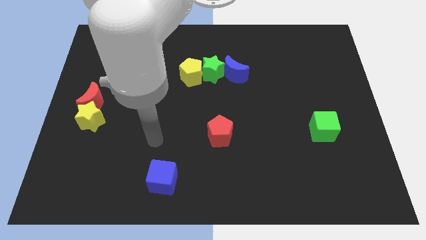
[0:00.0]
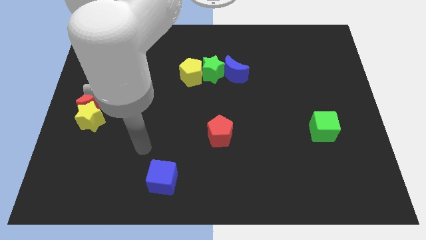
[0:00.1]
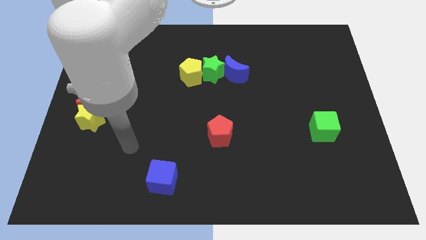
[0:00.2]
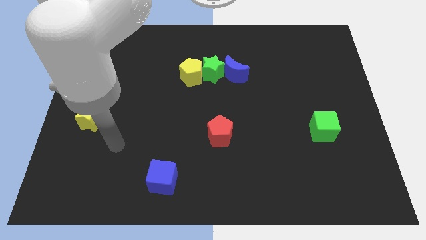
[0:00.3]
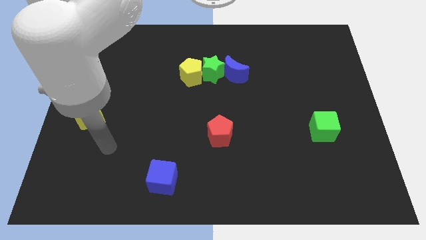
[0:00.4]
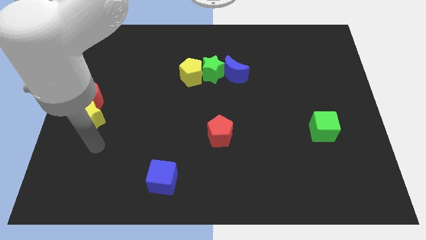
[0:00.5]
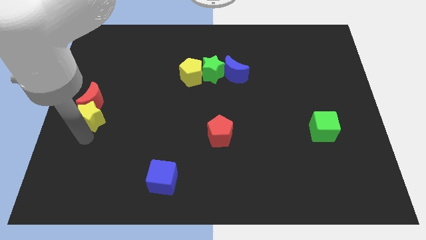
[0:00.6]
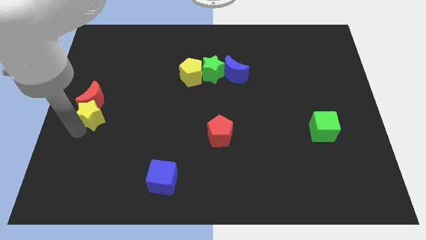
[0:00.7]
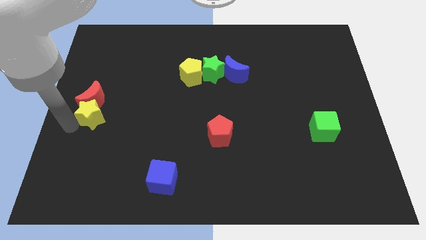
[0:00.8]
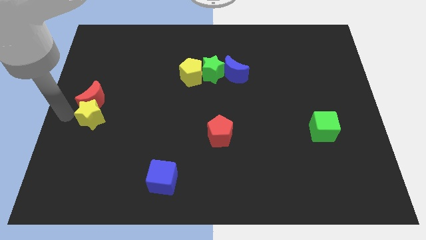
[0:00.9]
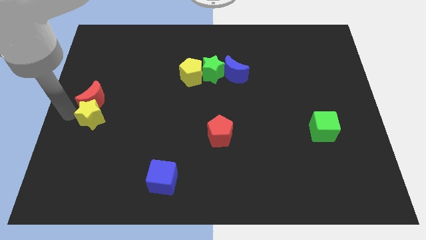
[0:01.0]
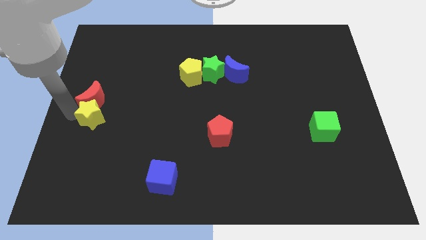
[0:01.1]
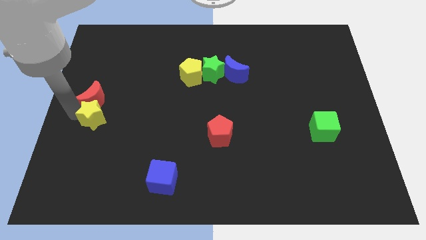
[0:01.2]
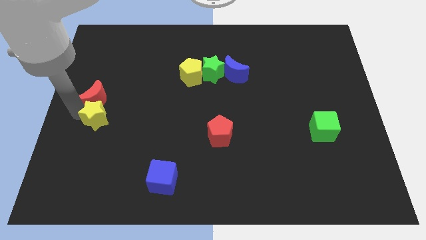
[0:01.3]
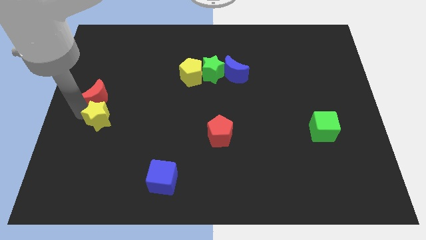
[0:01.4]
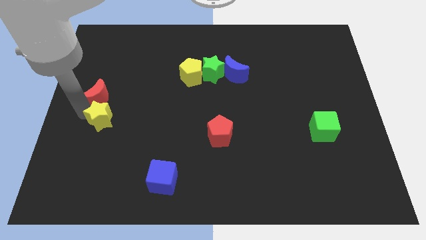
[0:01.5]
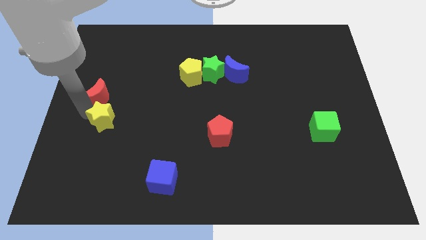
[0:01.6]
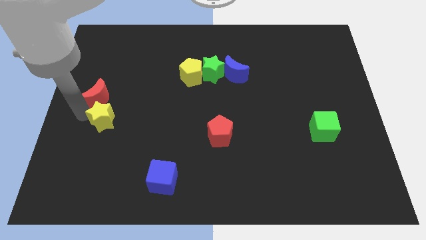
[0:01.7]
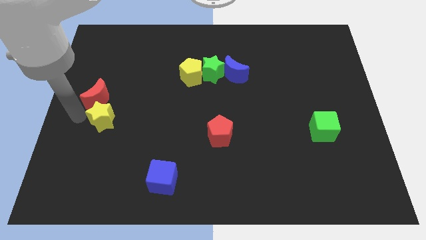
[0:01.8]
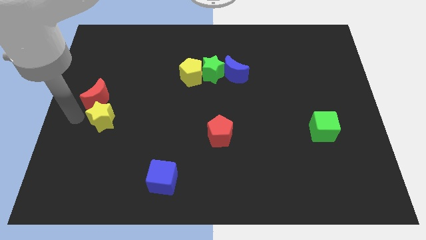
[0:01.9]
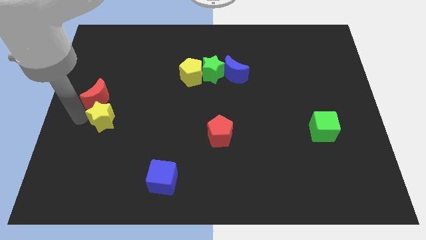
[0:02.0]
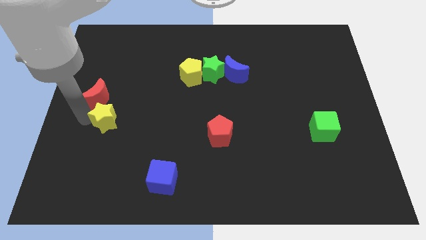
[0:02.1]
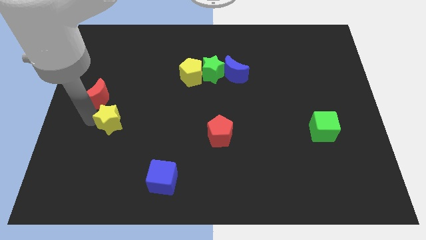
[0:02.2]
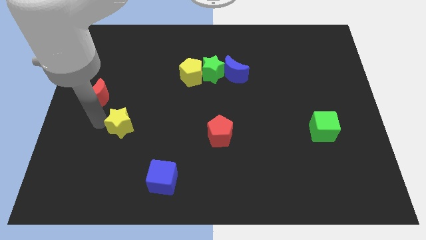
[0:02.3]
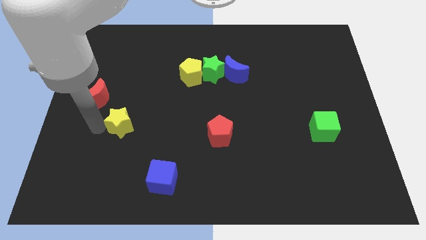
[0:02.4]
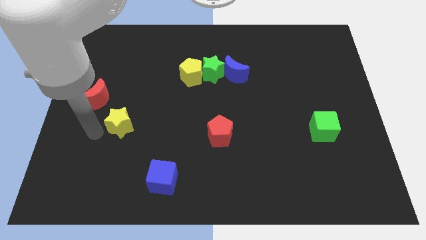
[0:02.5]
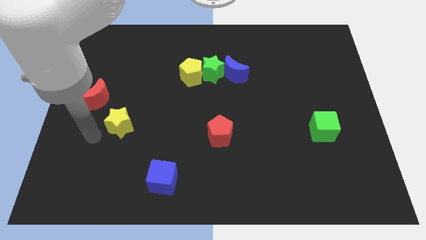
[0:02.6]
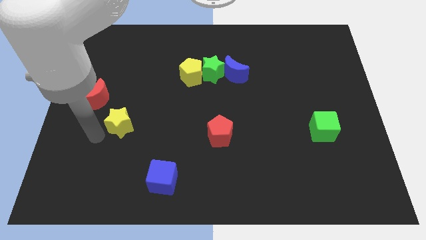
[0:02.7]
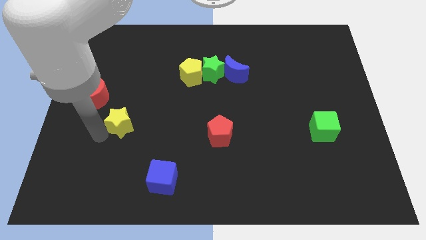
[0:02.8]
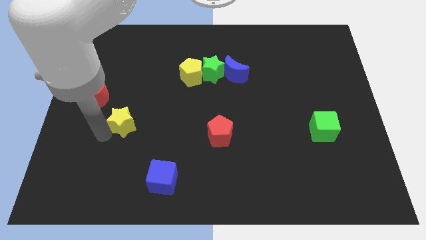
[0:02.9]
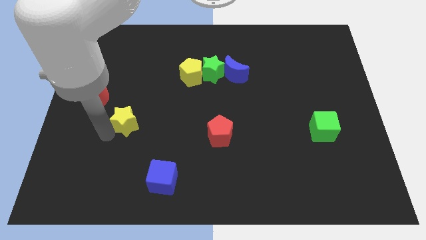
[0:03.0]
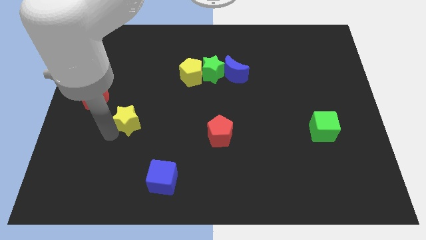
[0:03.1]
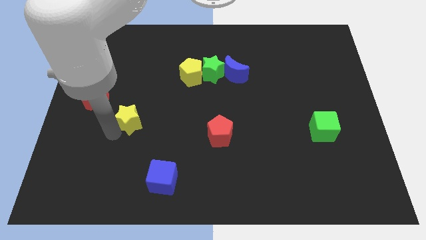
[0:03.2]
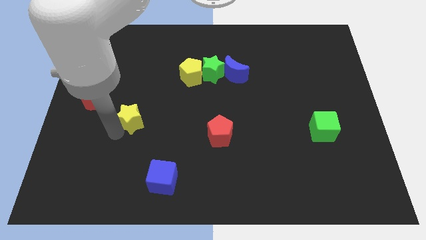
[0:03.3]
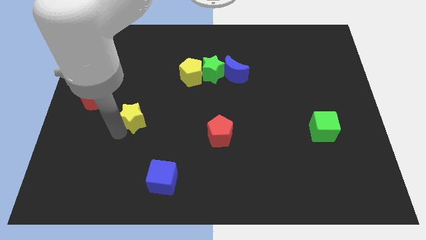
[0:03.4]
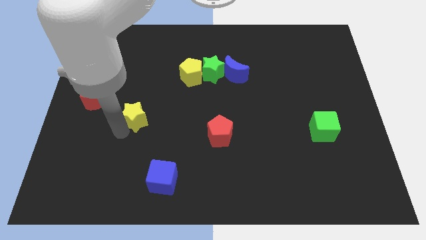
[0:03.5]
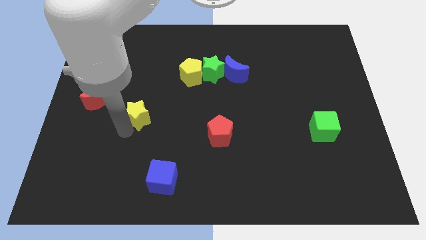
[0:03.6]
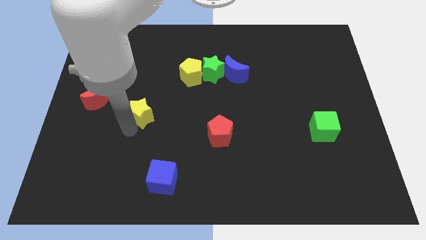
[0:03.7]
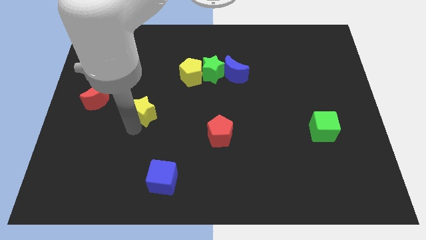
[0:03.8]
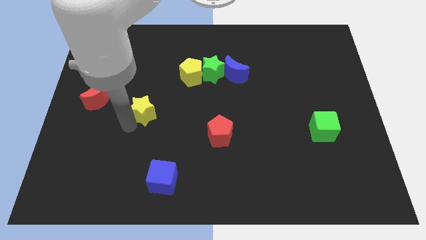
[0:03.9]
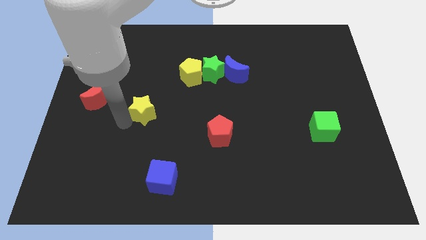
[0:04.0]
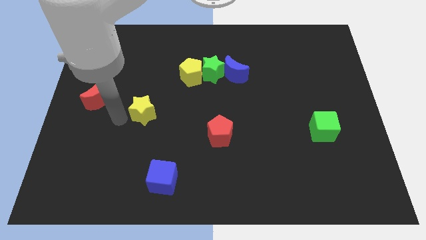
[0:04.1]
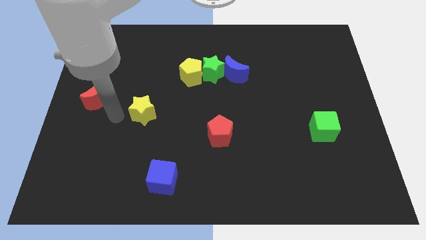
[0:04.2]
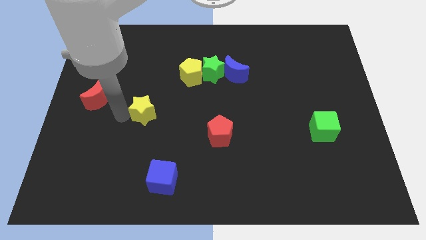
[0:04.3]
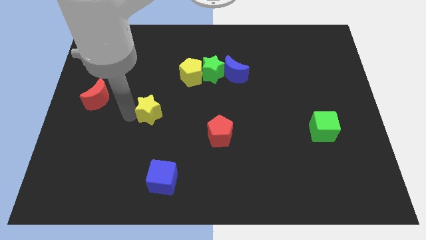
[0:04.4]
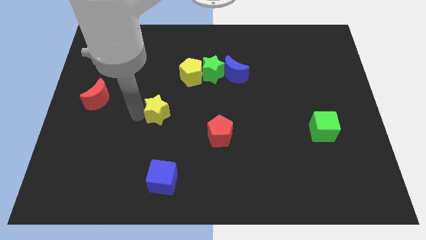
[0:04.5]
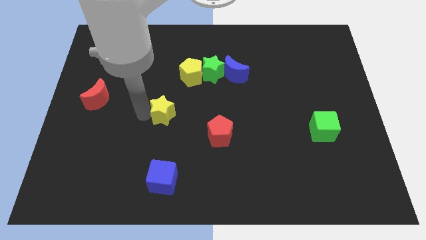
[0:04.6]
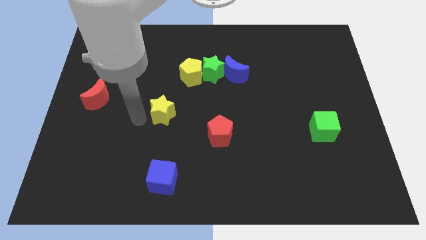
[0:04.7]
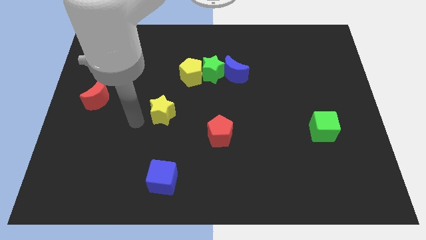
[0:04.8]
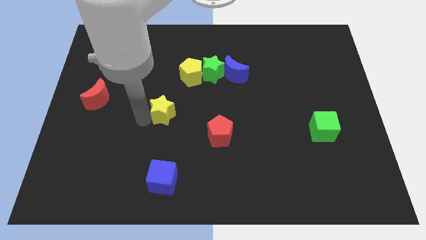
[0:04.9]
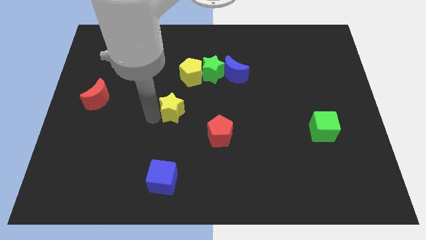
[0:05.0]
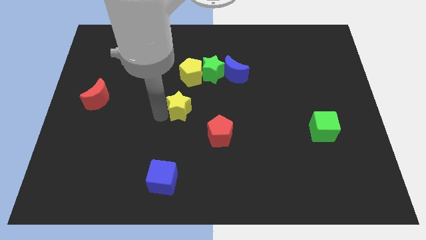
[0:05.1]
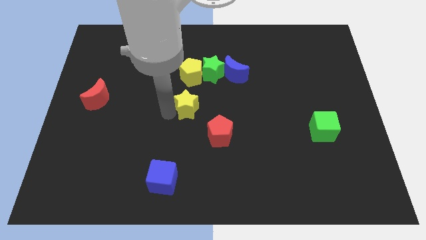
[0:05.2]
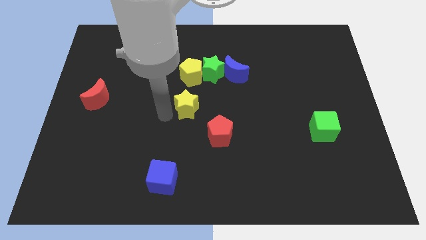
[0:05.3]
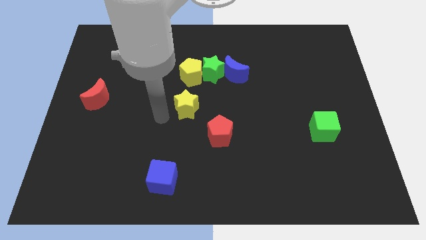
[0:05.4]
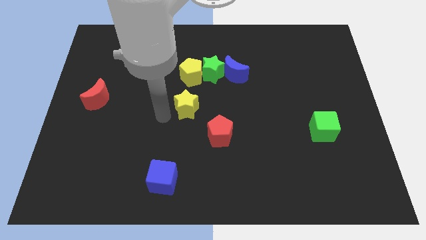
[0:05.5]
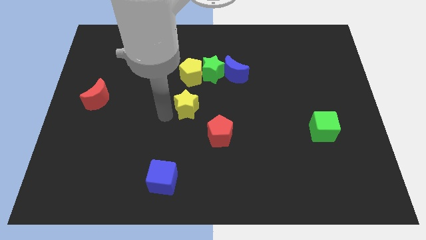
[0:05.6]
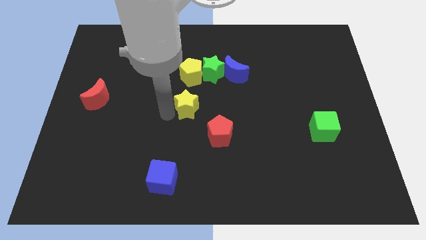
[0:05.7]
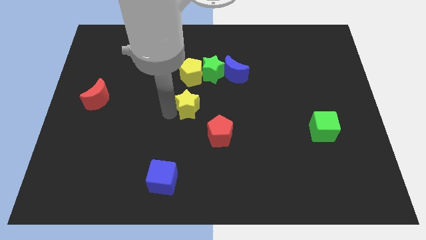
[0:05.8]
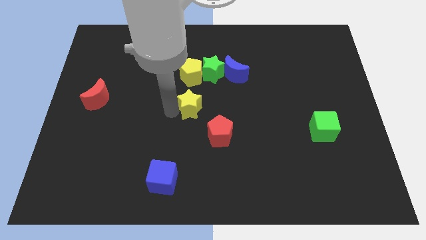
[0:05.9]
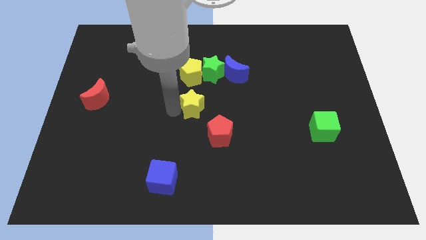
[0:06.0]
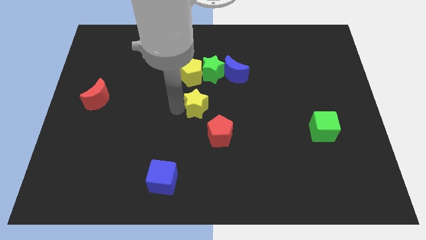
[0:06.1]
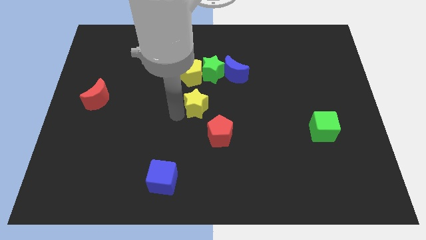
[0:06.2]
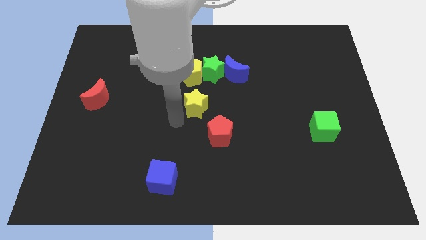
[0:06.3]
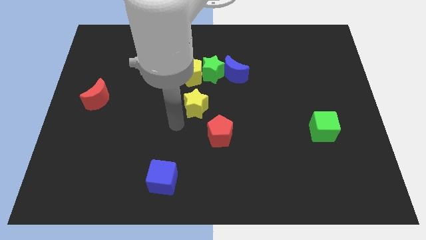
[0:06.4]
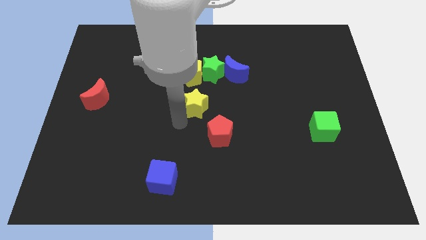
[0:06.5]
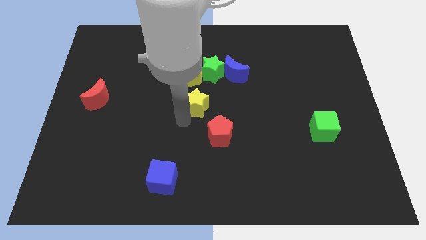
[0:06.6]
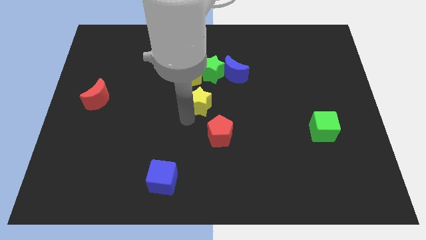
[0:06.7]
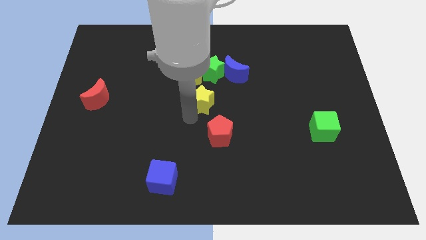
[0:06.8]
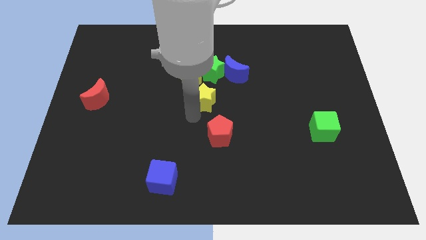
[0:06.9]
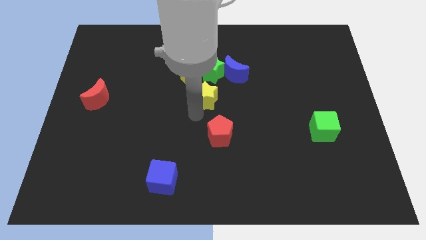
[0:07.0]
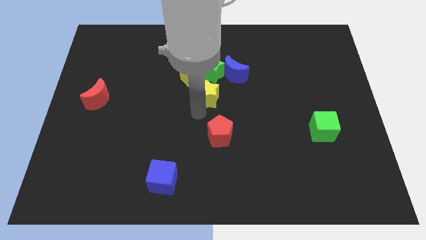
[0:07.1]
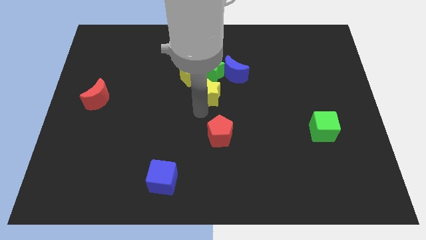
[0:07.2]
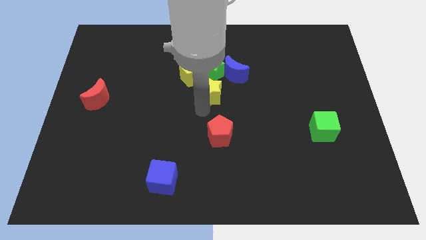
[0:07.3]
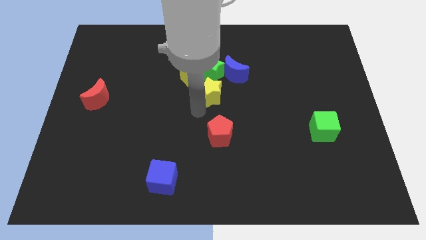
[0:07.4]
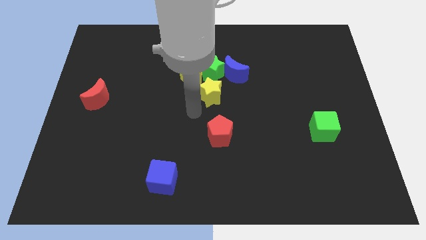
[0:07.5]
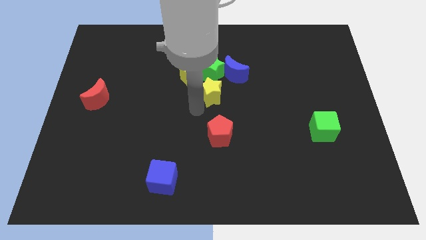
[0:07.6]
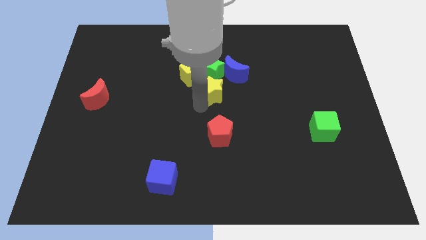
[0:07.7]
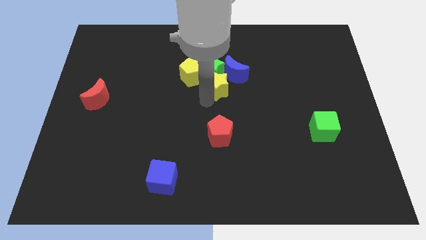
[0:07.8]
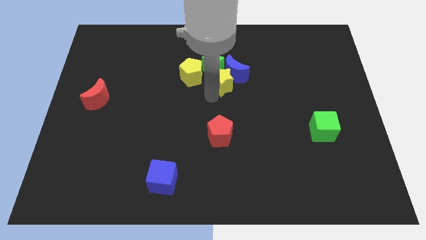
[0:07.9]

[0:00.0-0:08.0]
push the yellow star towards the blue moon

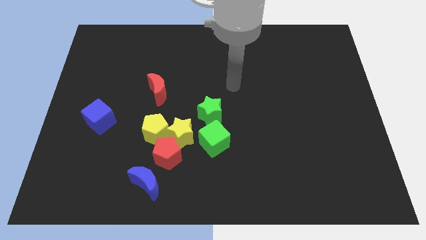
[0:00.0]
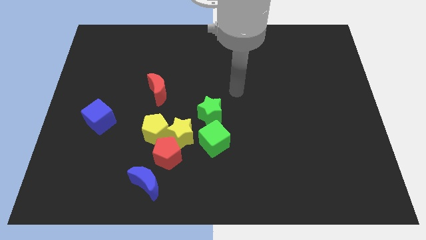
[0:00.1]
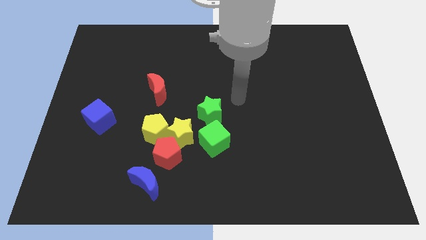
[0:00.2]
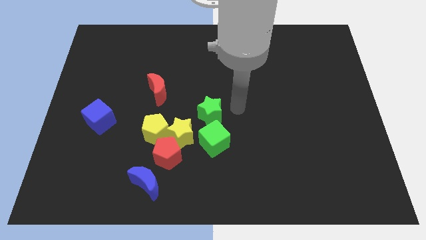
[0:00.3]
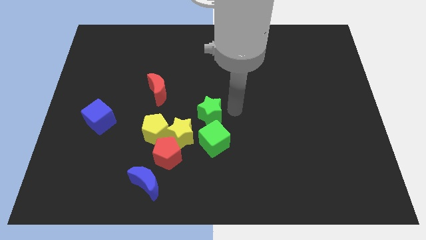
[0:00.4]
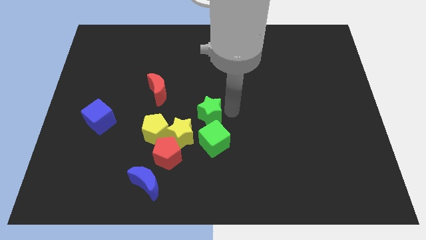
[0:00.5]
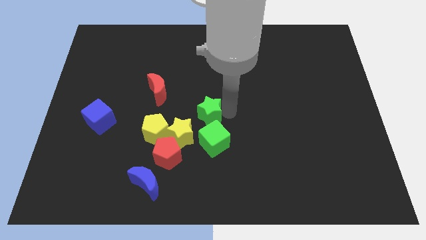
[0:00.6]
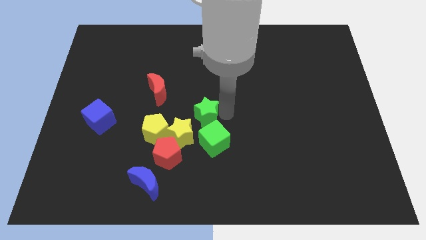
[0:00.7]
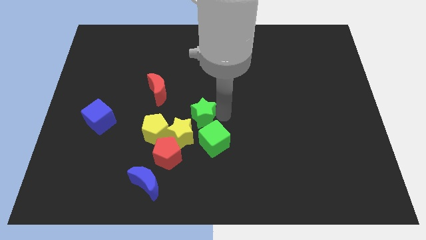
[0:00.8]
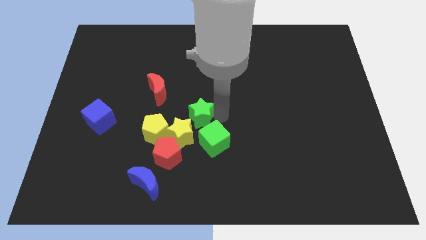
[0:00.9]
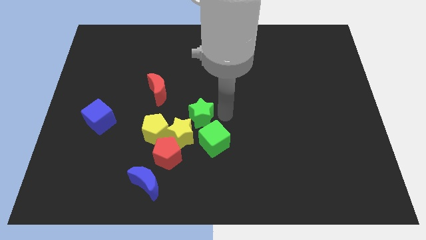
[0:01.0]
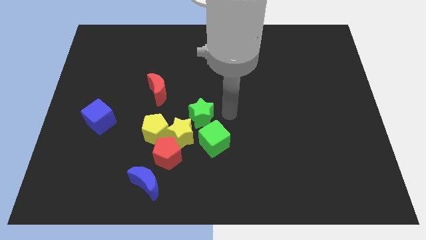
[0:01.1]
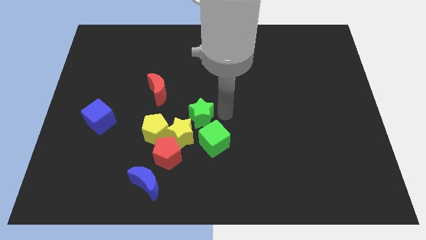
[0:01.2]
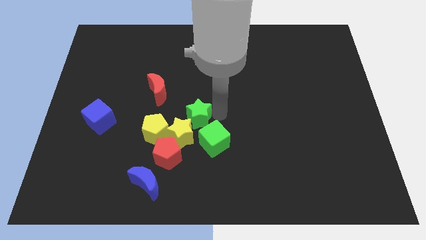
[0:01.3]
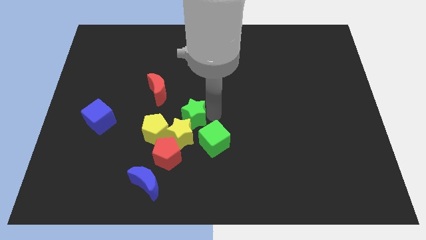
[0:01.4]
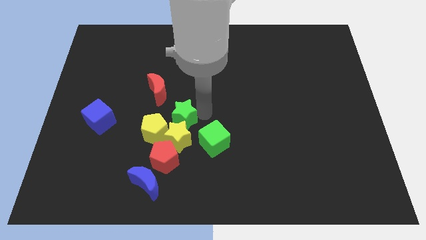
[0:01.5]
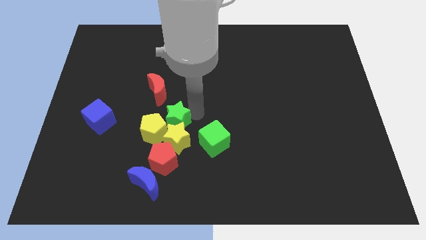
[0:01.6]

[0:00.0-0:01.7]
put the green star next to the yellow pentagon
